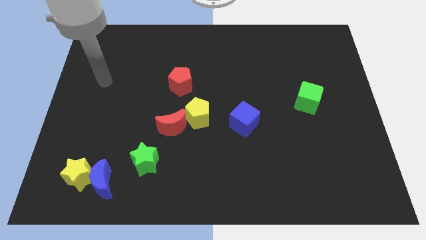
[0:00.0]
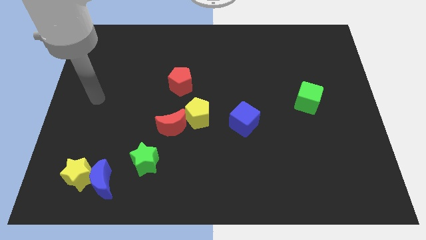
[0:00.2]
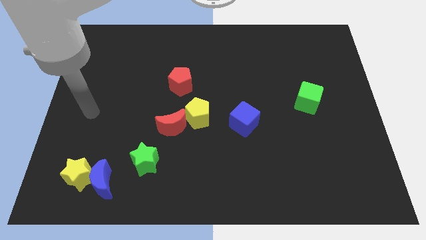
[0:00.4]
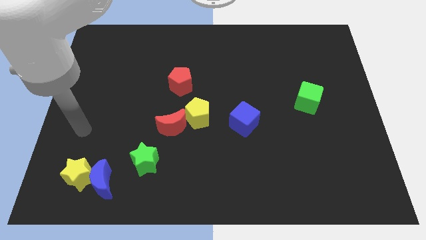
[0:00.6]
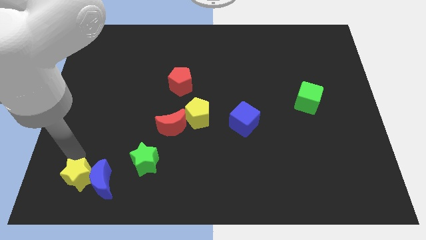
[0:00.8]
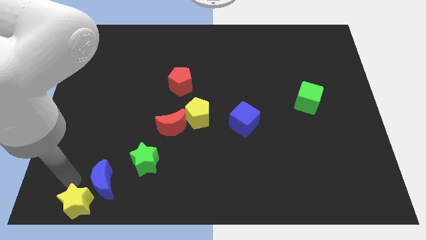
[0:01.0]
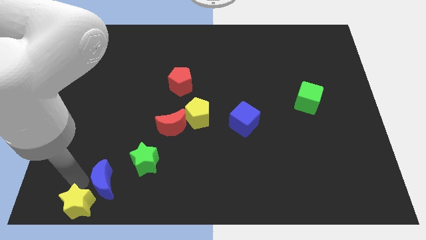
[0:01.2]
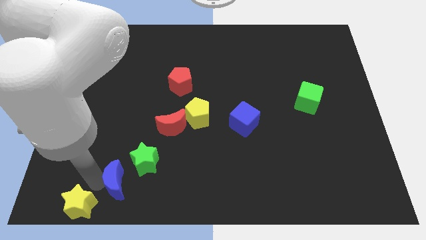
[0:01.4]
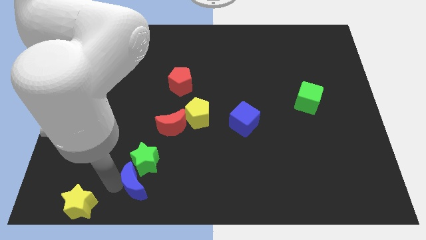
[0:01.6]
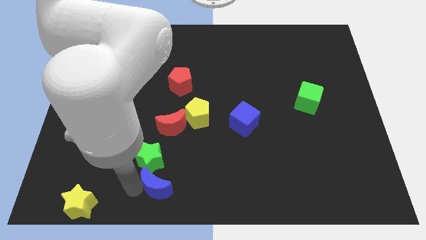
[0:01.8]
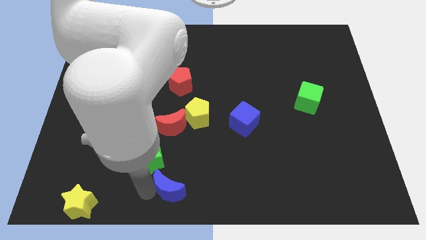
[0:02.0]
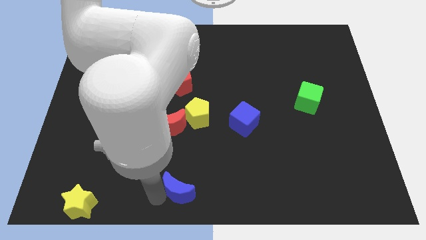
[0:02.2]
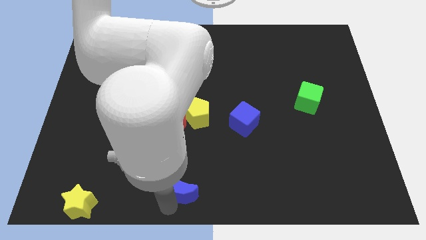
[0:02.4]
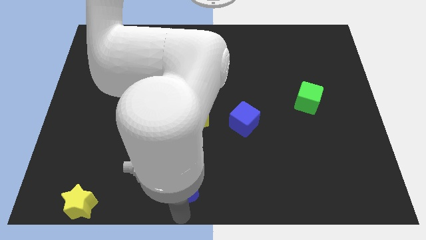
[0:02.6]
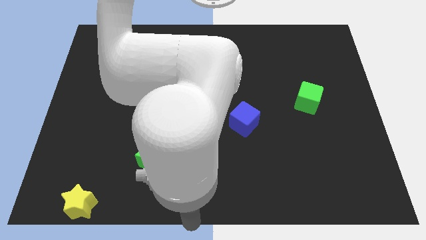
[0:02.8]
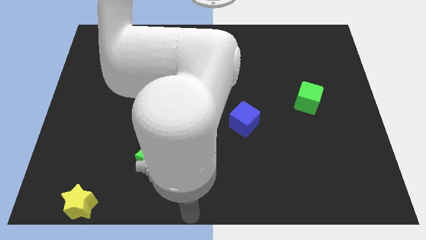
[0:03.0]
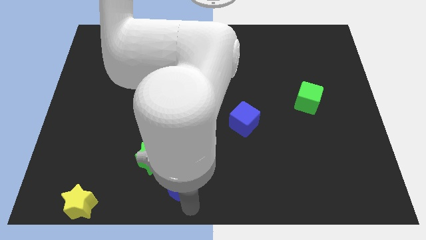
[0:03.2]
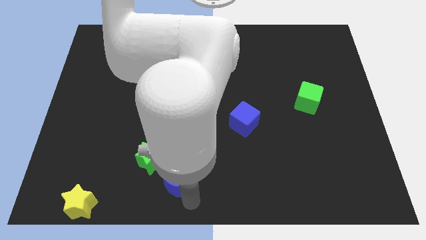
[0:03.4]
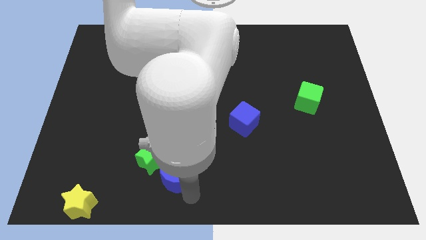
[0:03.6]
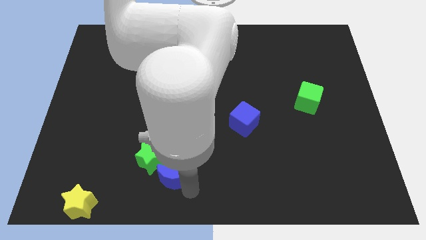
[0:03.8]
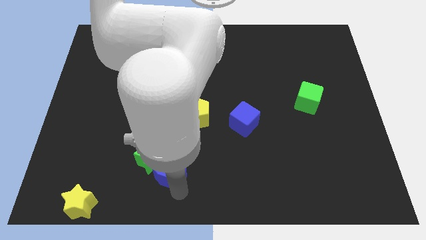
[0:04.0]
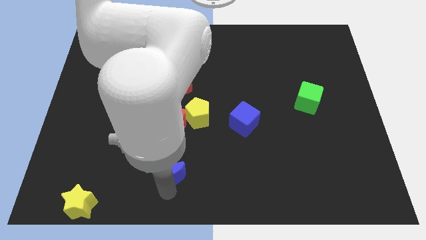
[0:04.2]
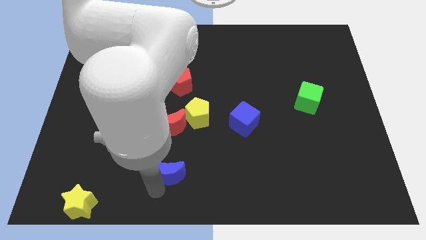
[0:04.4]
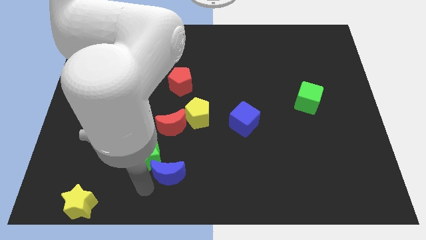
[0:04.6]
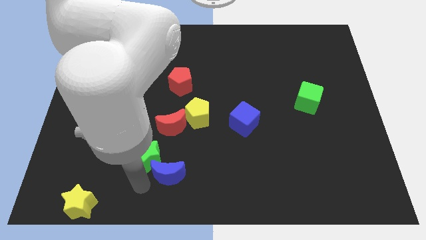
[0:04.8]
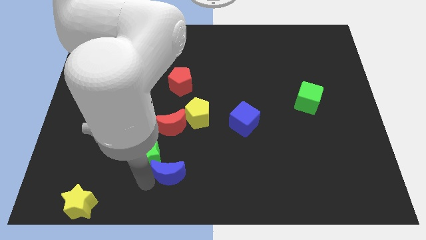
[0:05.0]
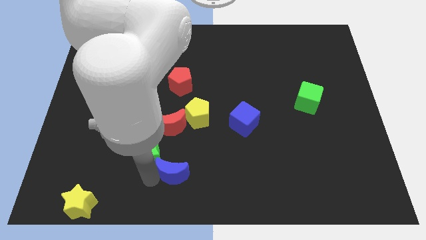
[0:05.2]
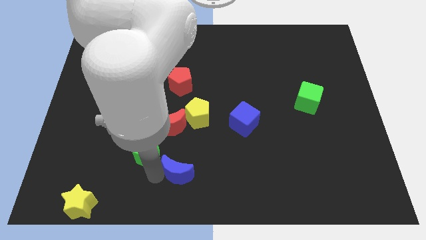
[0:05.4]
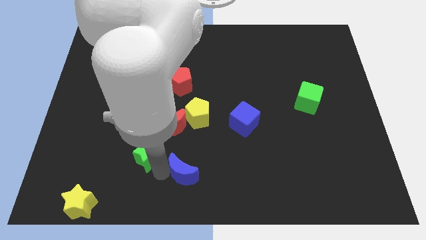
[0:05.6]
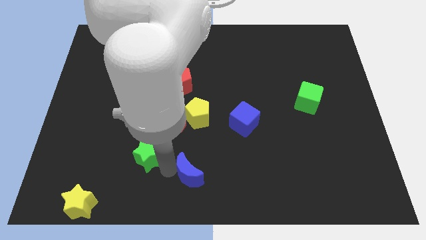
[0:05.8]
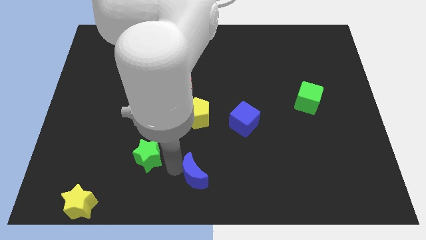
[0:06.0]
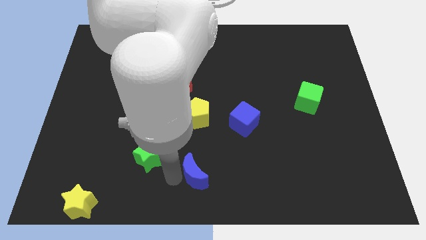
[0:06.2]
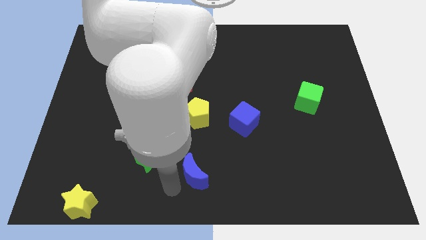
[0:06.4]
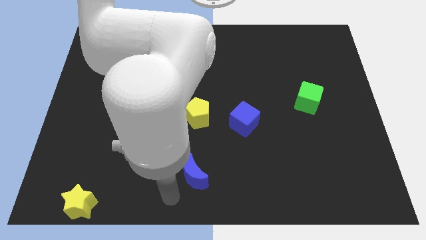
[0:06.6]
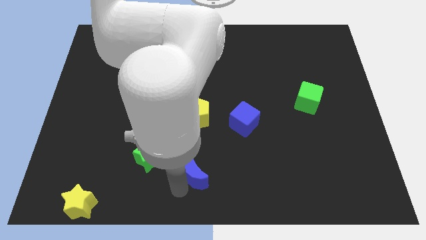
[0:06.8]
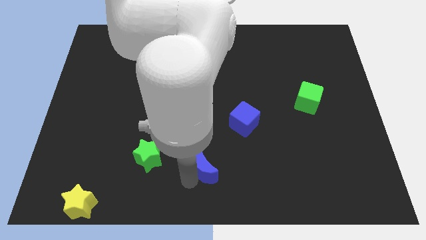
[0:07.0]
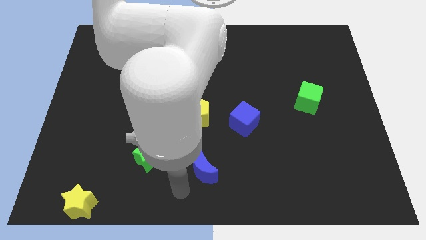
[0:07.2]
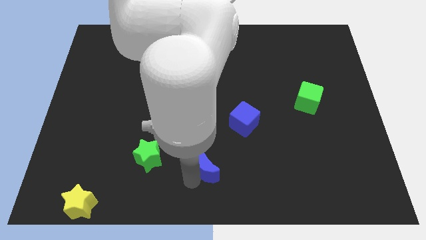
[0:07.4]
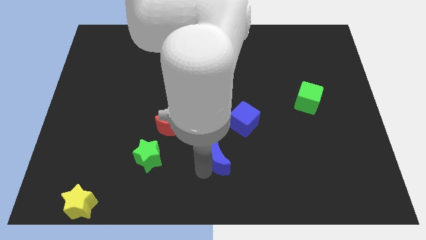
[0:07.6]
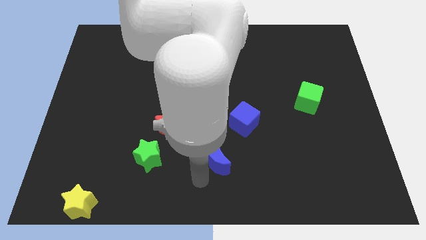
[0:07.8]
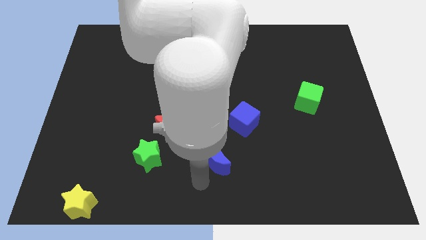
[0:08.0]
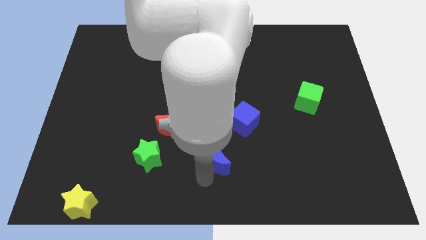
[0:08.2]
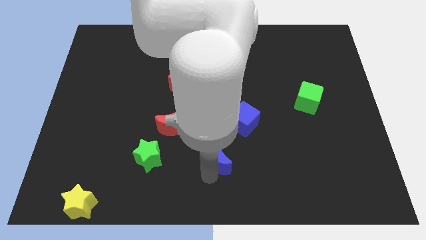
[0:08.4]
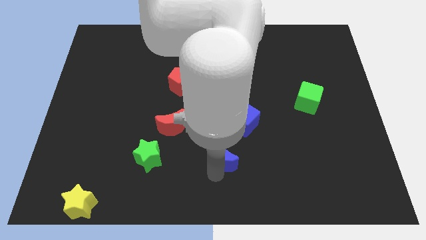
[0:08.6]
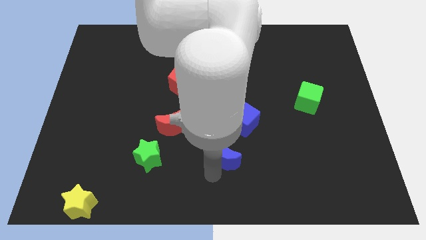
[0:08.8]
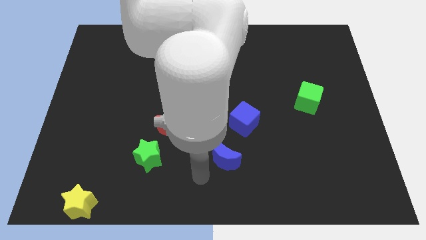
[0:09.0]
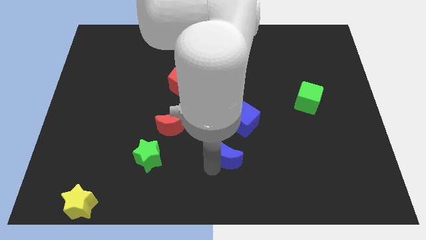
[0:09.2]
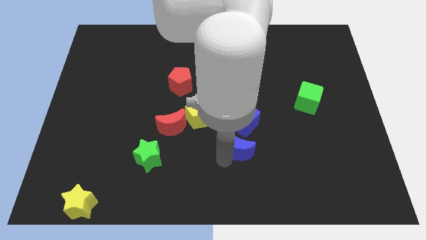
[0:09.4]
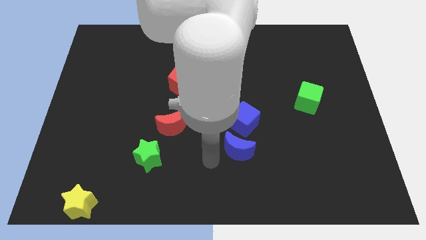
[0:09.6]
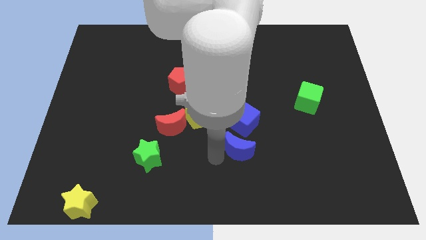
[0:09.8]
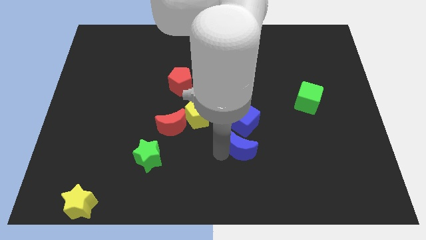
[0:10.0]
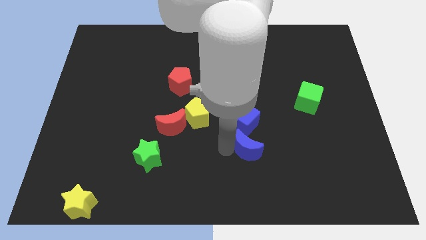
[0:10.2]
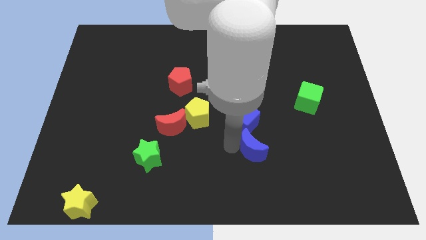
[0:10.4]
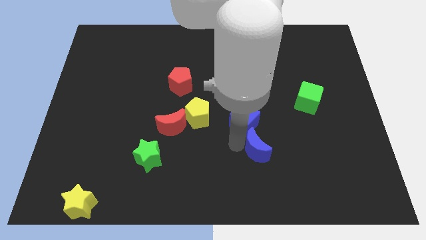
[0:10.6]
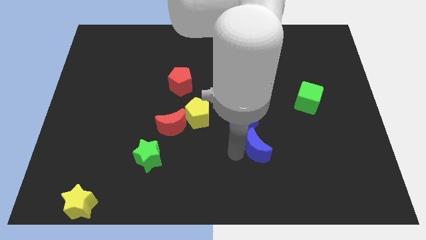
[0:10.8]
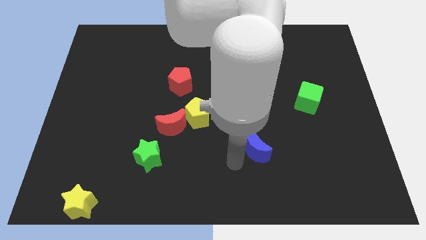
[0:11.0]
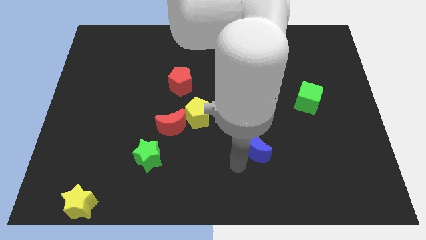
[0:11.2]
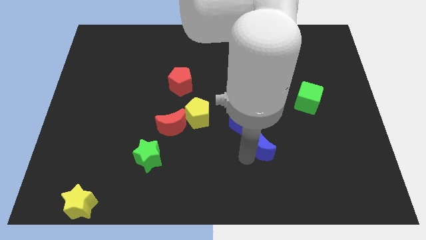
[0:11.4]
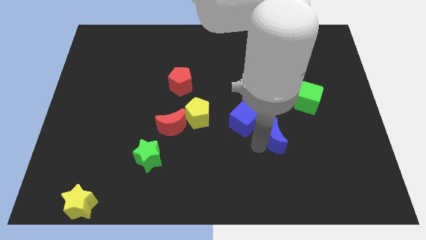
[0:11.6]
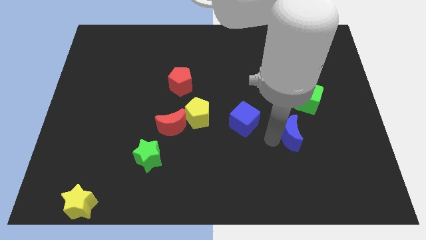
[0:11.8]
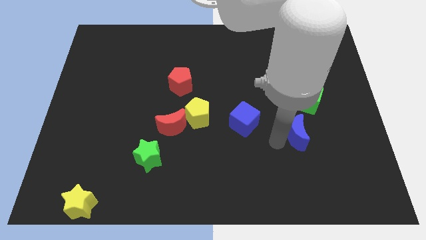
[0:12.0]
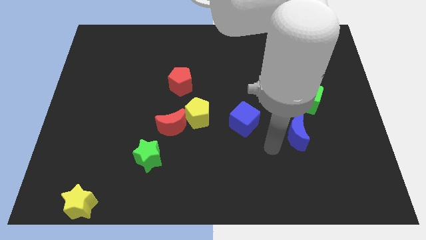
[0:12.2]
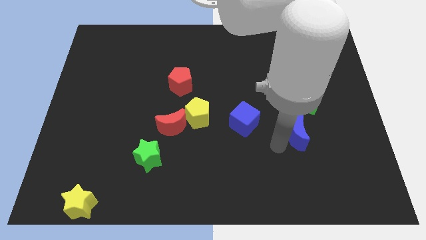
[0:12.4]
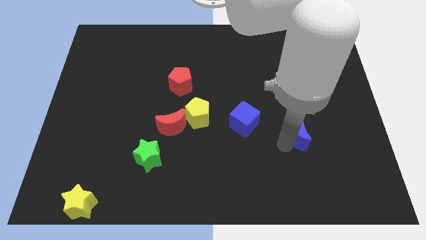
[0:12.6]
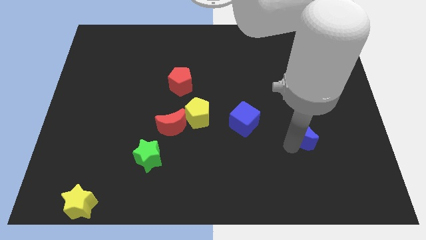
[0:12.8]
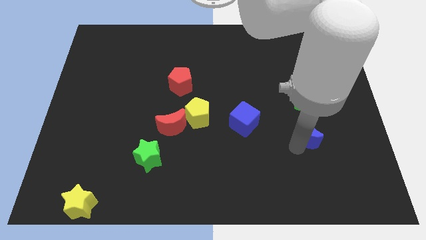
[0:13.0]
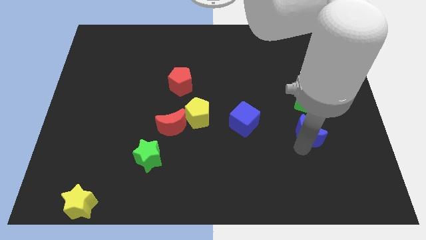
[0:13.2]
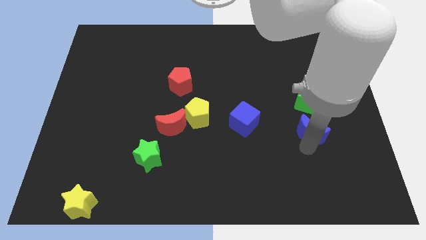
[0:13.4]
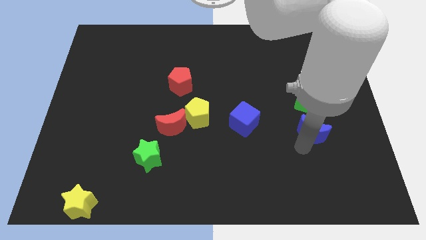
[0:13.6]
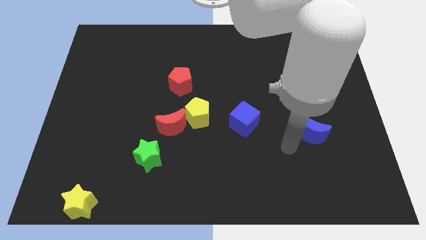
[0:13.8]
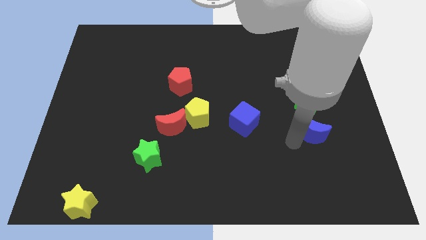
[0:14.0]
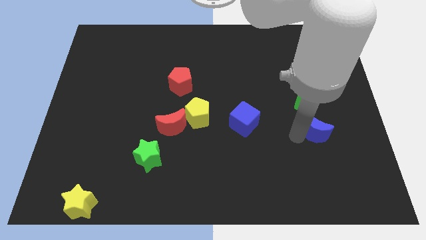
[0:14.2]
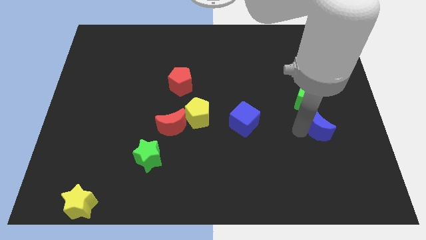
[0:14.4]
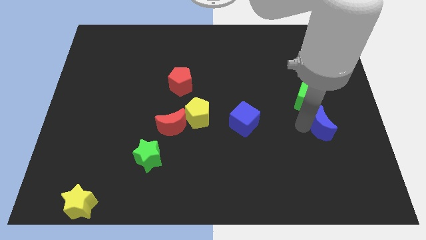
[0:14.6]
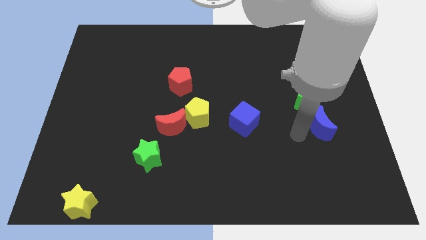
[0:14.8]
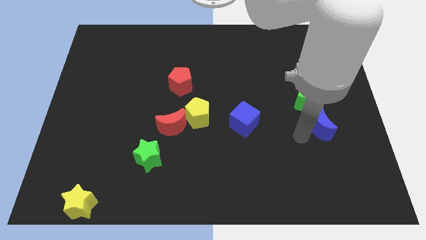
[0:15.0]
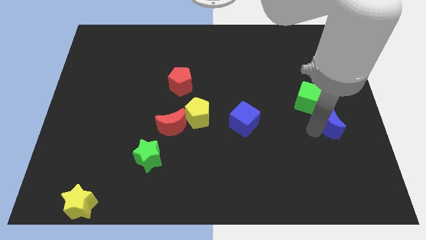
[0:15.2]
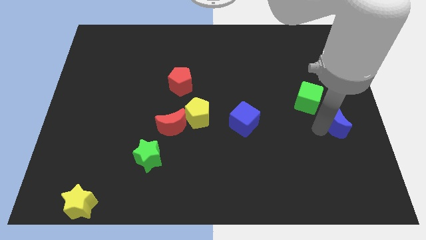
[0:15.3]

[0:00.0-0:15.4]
push the blue moon to the right side
